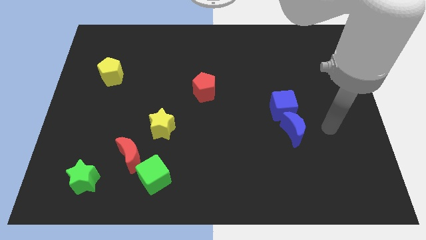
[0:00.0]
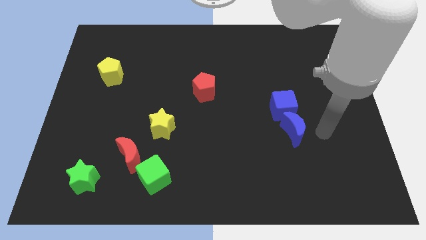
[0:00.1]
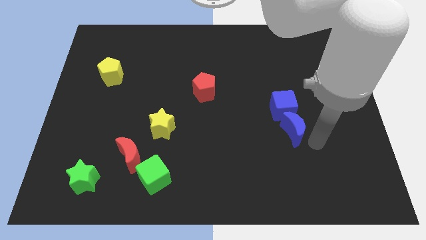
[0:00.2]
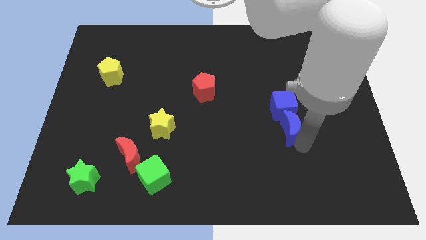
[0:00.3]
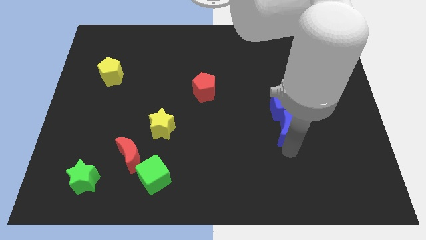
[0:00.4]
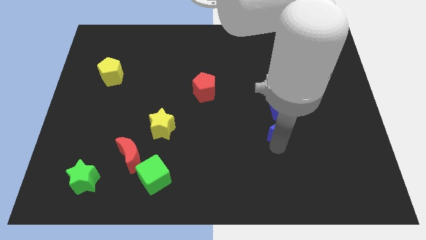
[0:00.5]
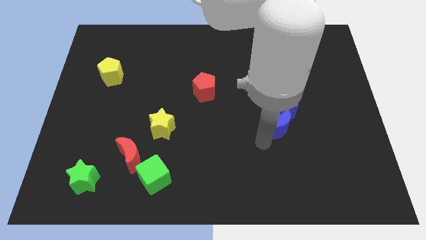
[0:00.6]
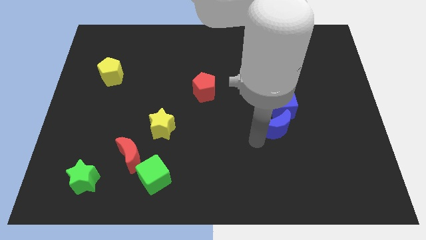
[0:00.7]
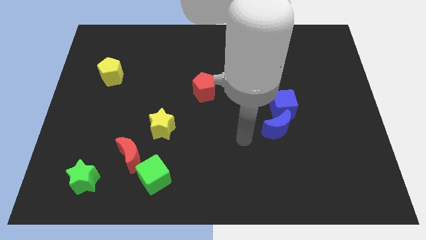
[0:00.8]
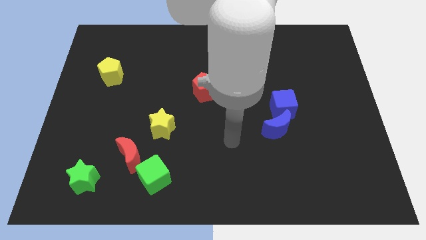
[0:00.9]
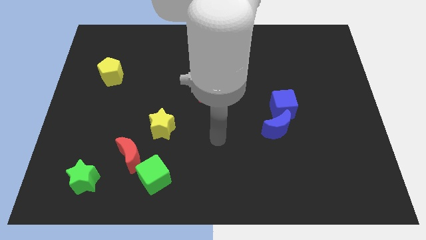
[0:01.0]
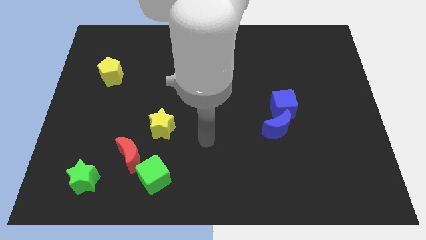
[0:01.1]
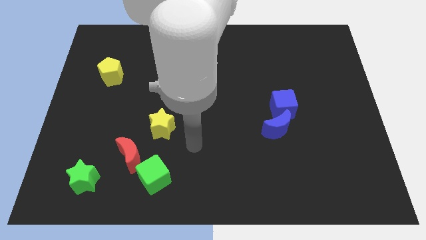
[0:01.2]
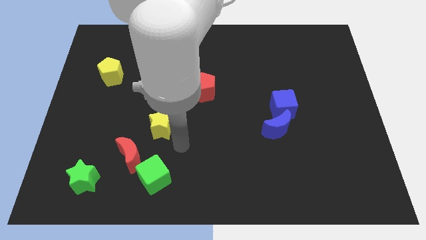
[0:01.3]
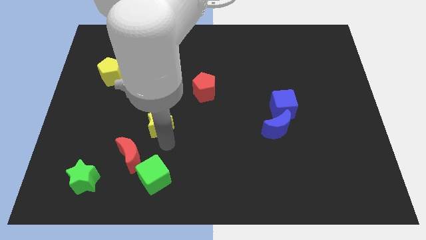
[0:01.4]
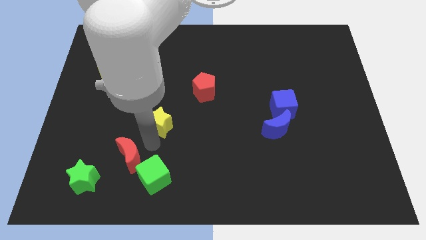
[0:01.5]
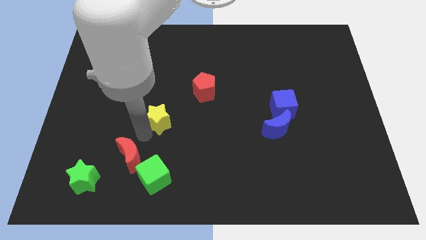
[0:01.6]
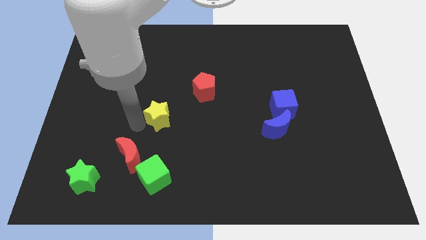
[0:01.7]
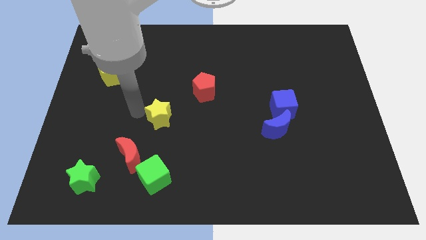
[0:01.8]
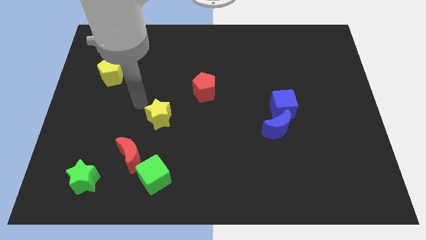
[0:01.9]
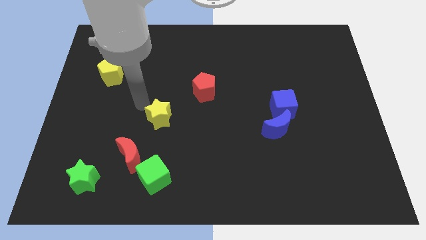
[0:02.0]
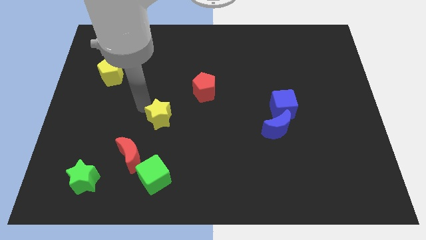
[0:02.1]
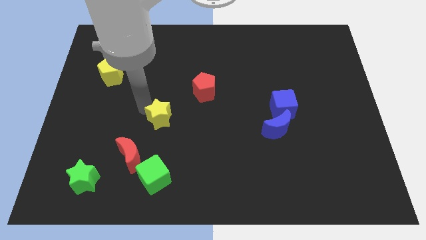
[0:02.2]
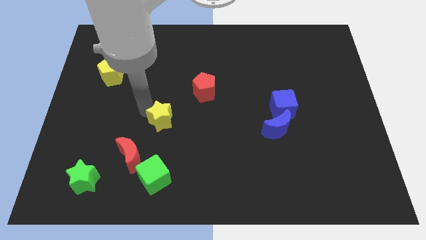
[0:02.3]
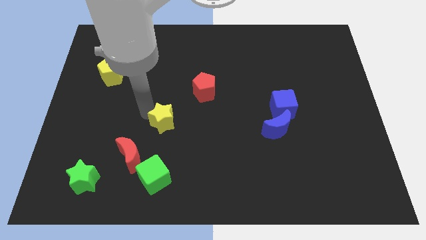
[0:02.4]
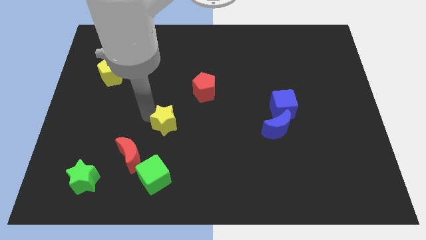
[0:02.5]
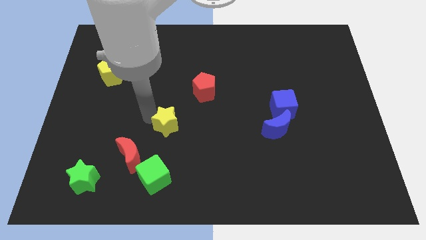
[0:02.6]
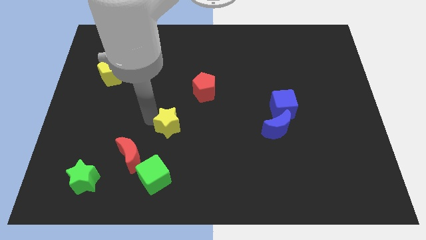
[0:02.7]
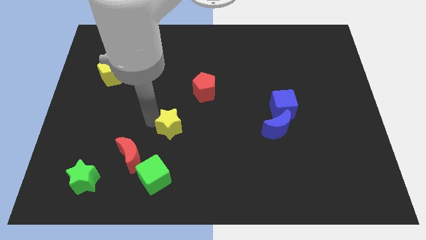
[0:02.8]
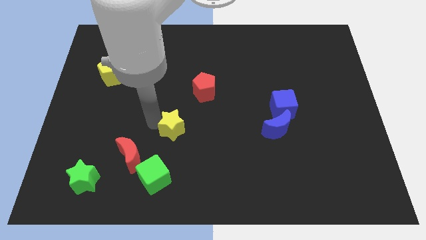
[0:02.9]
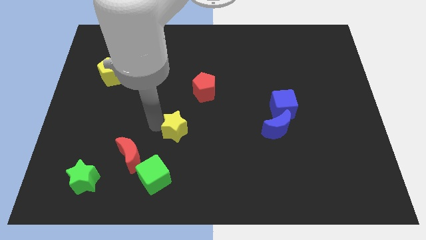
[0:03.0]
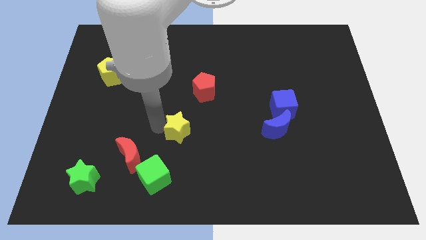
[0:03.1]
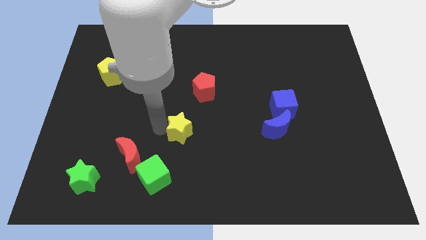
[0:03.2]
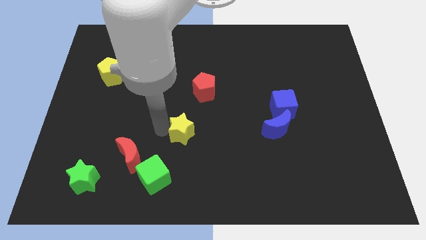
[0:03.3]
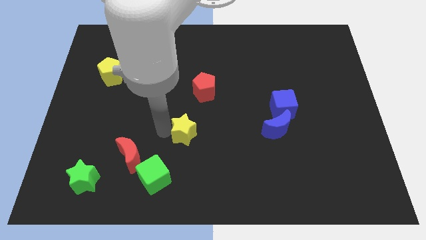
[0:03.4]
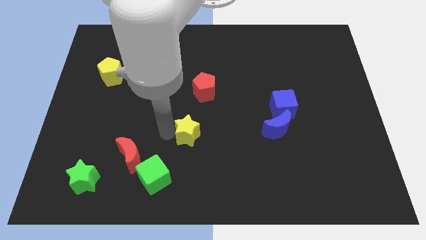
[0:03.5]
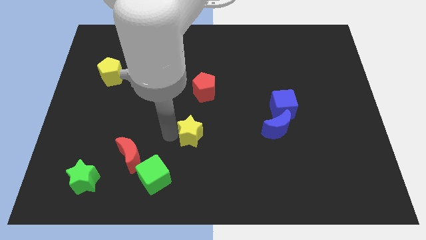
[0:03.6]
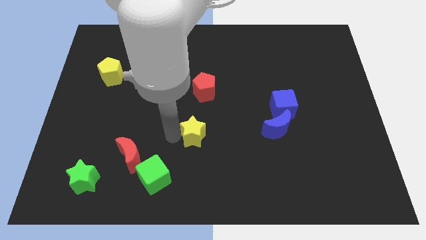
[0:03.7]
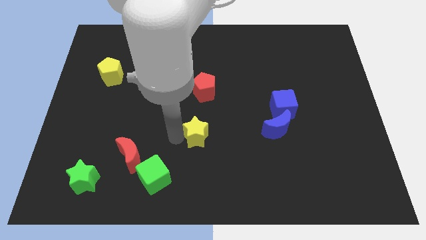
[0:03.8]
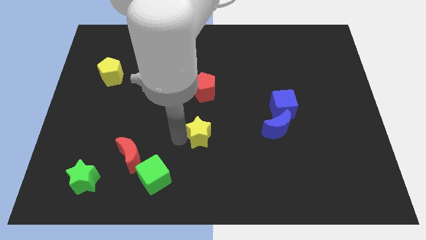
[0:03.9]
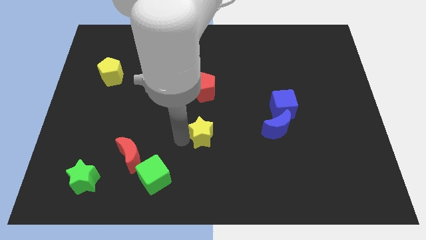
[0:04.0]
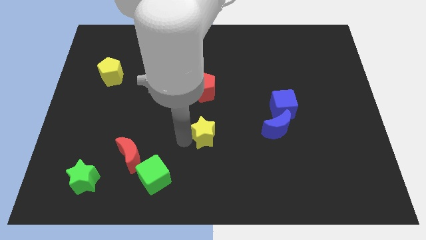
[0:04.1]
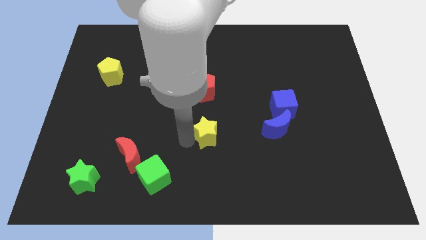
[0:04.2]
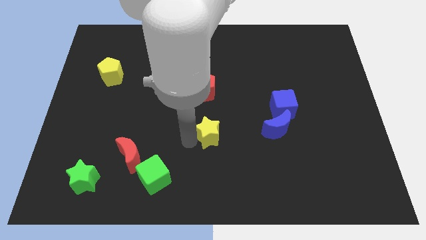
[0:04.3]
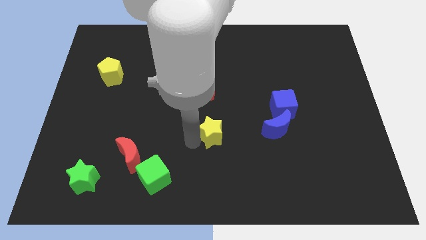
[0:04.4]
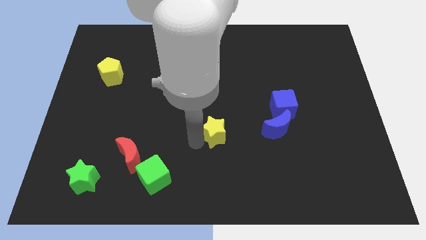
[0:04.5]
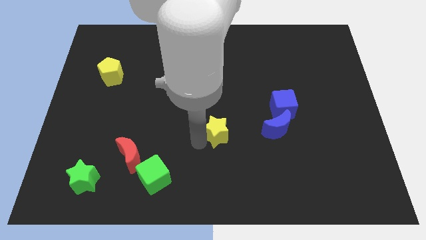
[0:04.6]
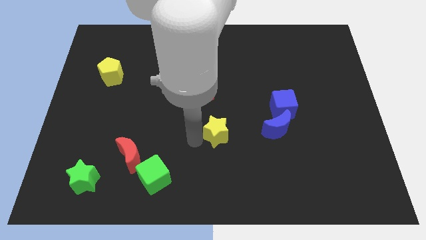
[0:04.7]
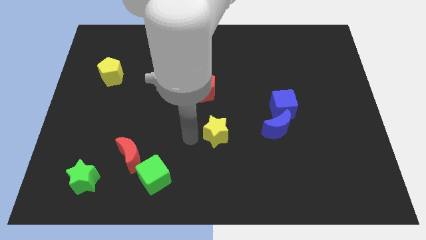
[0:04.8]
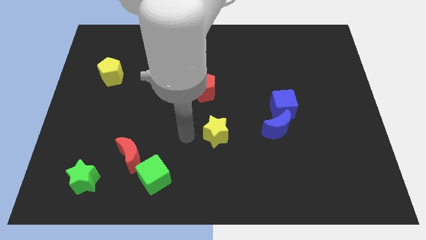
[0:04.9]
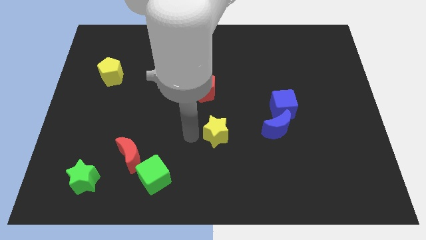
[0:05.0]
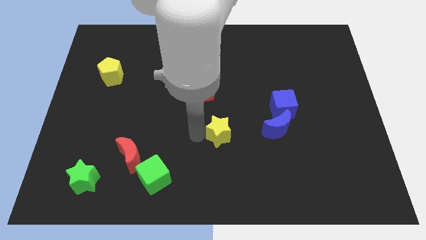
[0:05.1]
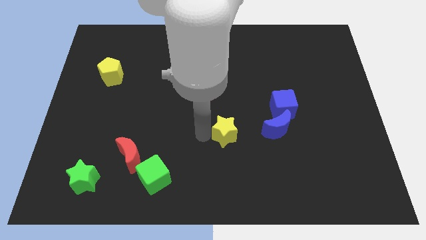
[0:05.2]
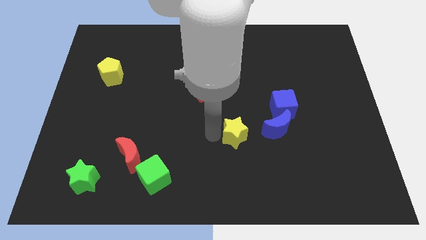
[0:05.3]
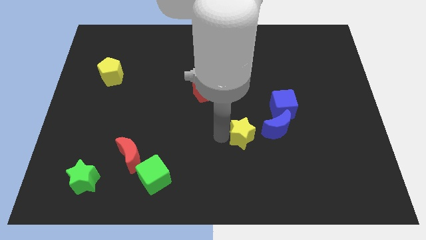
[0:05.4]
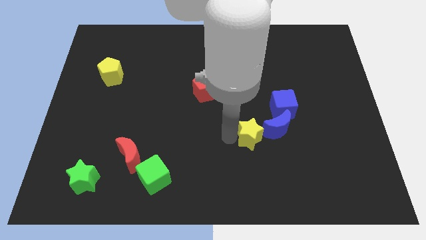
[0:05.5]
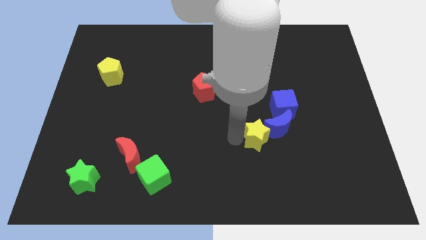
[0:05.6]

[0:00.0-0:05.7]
push the yellow star to the blue moon

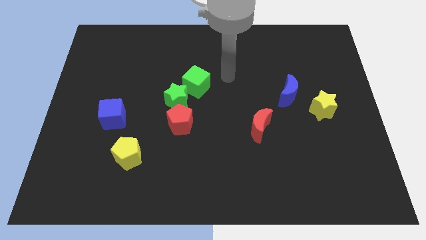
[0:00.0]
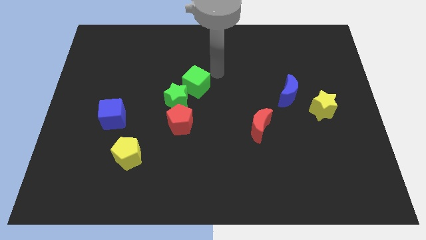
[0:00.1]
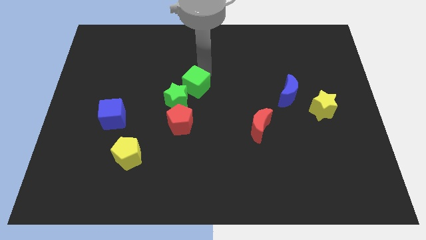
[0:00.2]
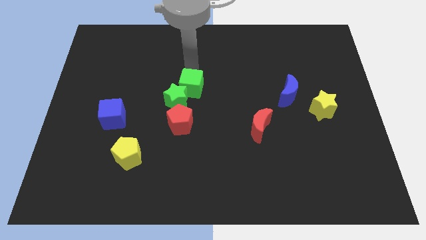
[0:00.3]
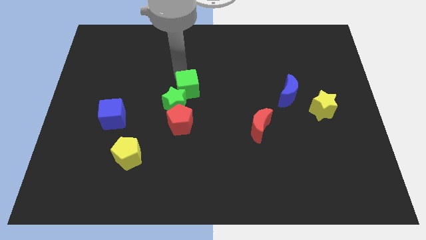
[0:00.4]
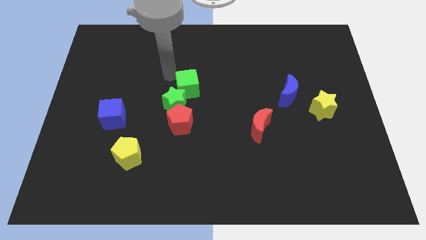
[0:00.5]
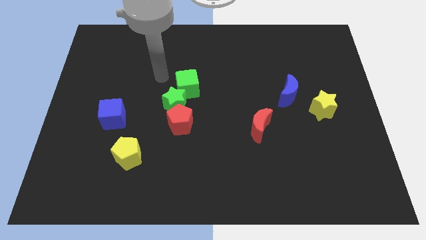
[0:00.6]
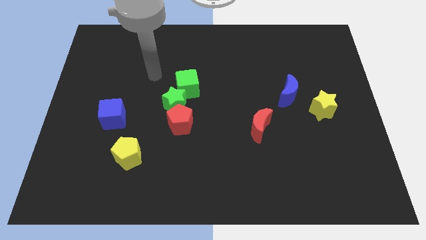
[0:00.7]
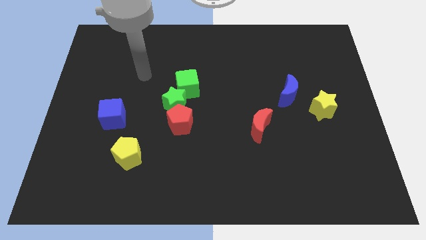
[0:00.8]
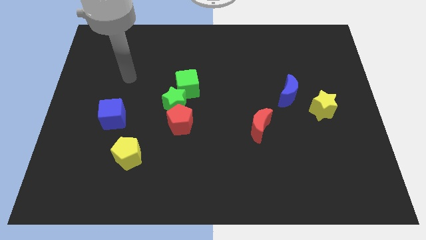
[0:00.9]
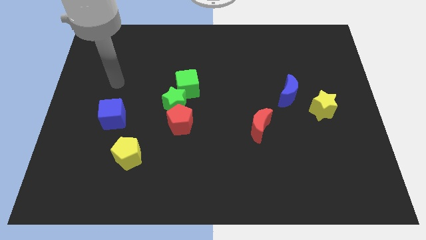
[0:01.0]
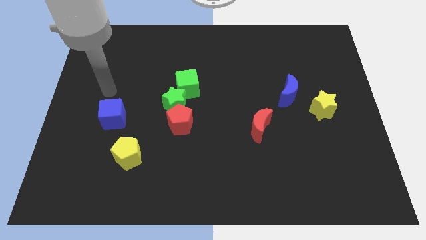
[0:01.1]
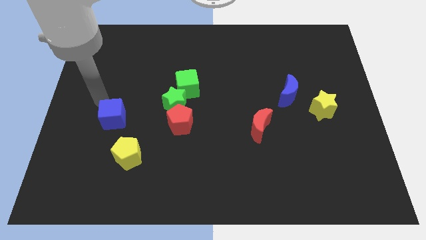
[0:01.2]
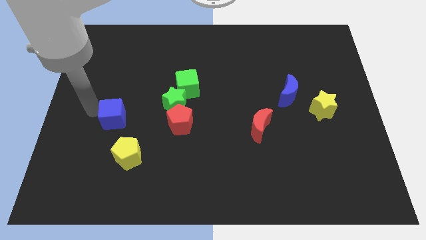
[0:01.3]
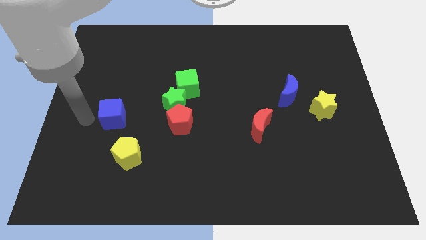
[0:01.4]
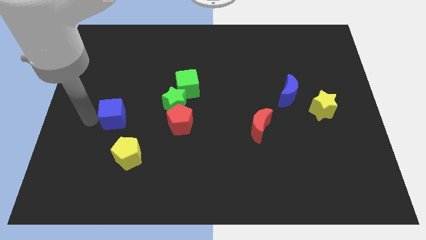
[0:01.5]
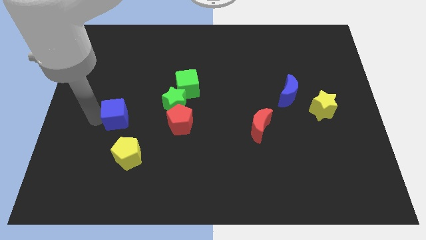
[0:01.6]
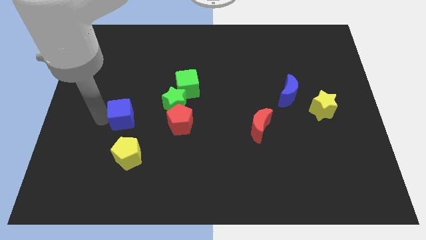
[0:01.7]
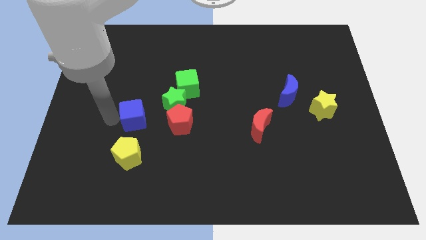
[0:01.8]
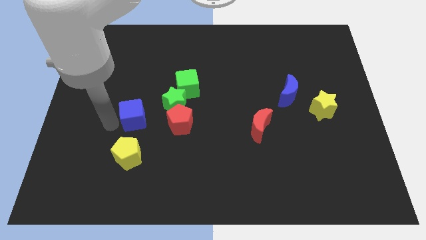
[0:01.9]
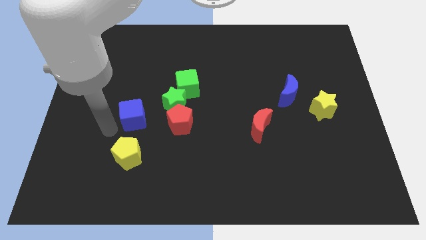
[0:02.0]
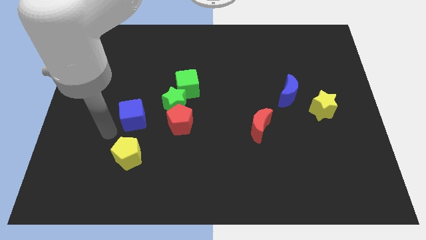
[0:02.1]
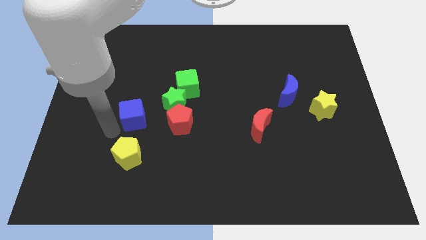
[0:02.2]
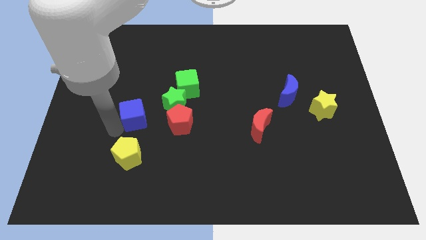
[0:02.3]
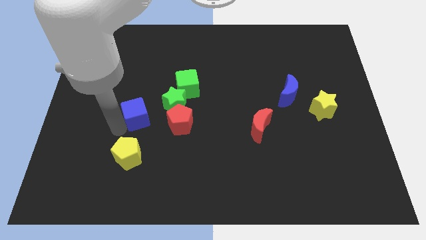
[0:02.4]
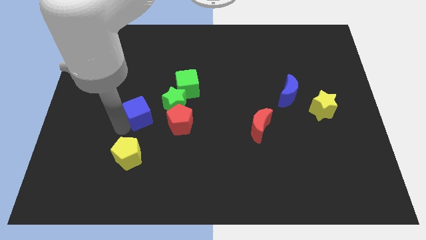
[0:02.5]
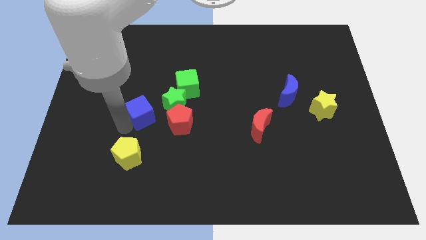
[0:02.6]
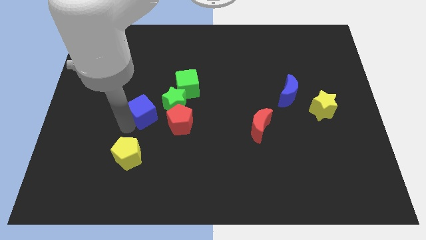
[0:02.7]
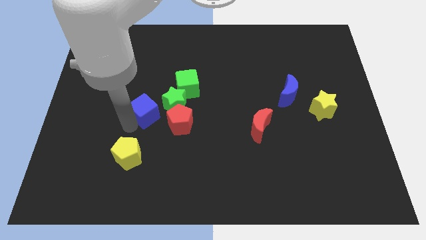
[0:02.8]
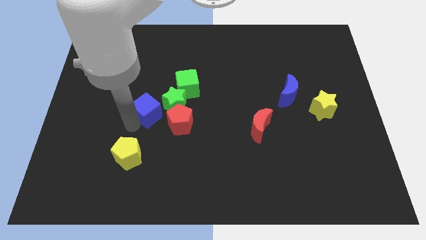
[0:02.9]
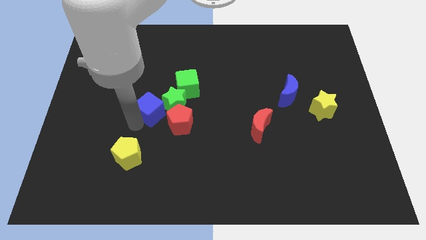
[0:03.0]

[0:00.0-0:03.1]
put the blue cube to the green star
